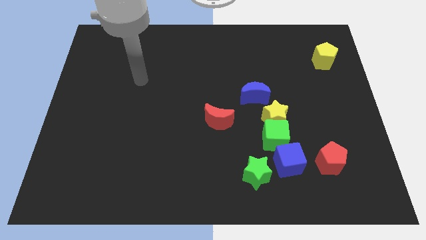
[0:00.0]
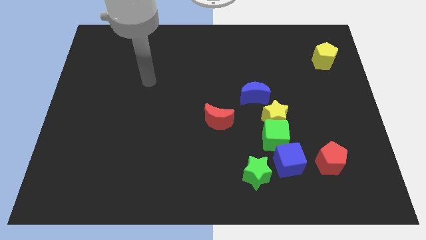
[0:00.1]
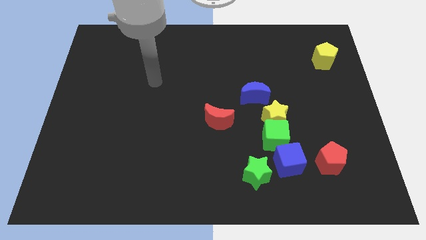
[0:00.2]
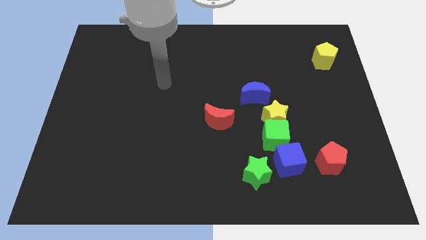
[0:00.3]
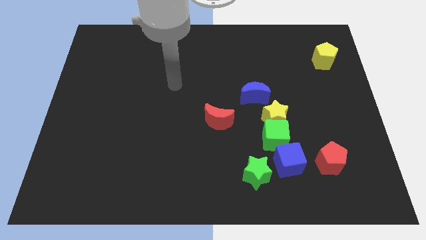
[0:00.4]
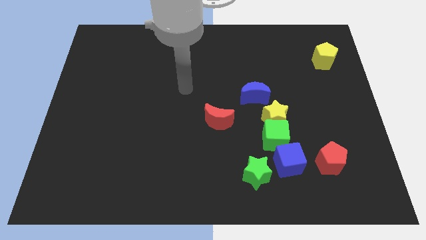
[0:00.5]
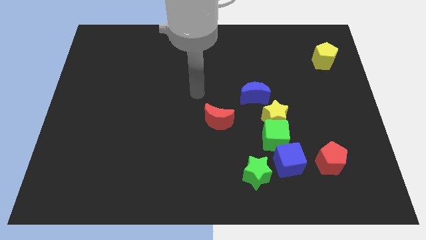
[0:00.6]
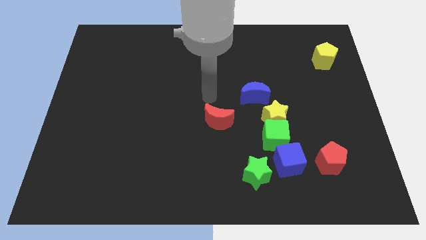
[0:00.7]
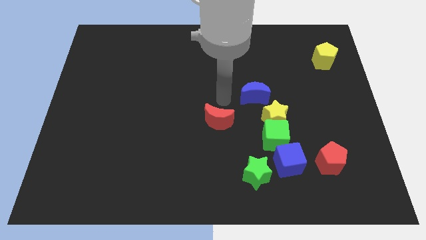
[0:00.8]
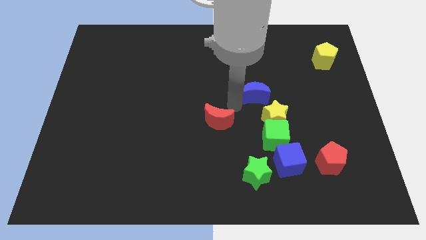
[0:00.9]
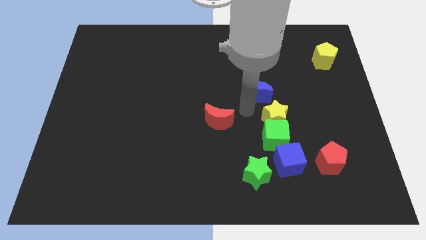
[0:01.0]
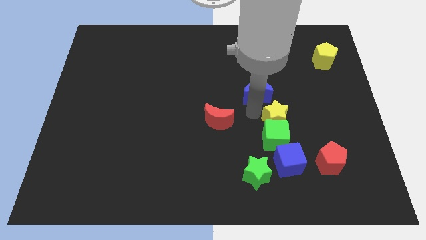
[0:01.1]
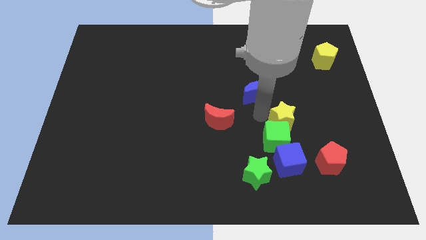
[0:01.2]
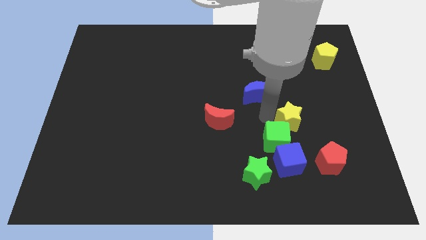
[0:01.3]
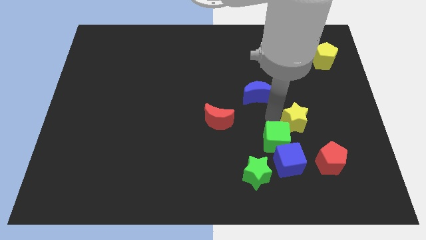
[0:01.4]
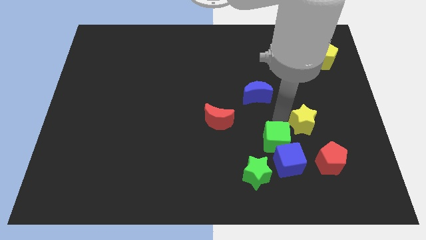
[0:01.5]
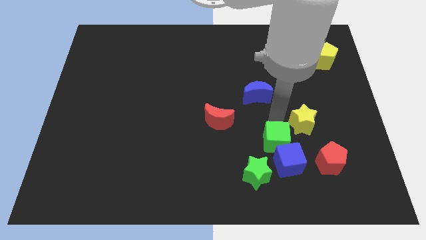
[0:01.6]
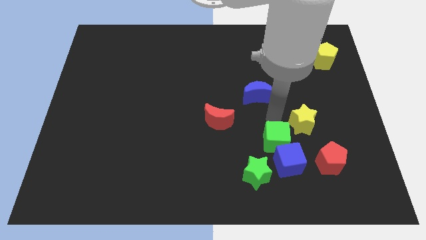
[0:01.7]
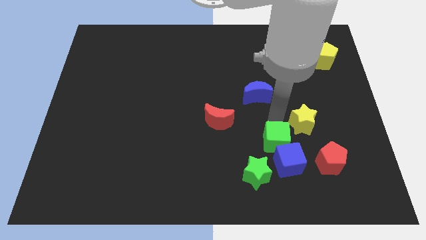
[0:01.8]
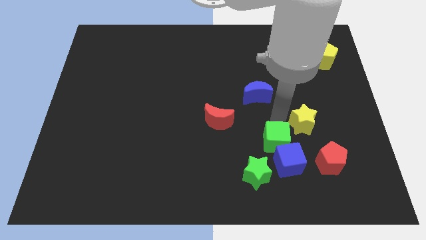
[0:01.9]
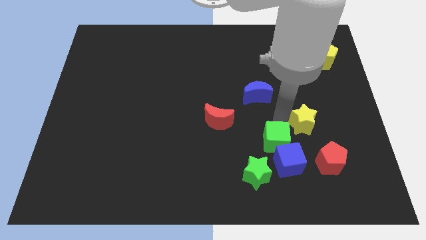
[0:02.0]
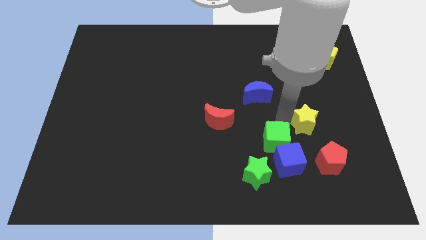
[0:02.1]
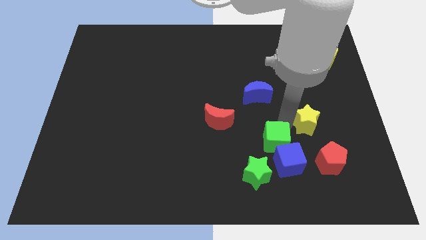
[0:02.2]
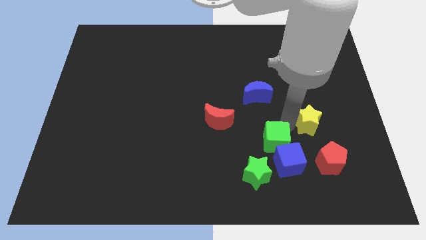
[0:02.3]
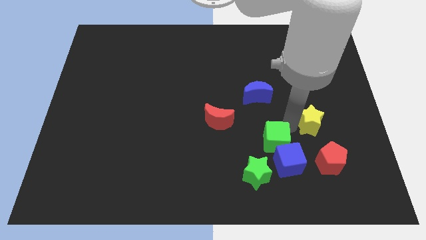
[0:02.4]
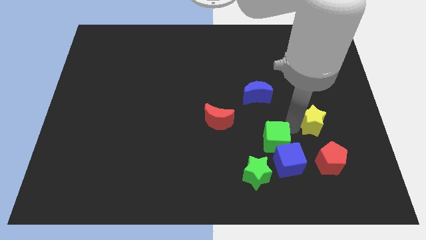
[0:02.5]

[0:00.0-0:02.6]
separate the yellow star from the green cube and blue moon

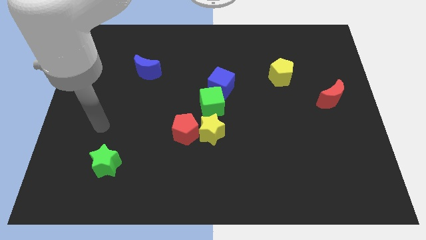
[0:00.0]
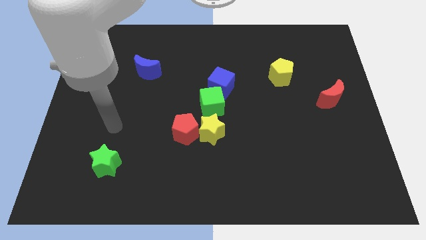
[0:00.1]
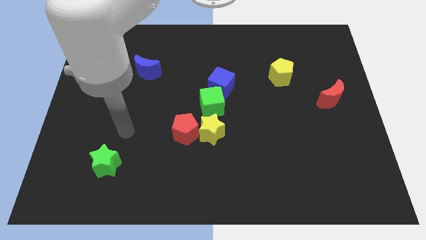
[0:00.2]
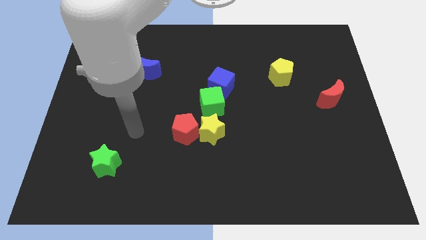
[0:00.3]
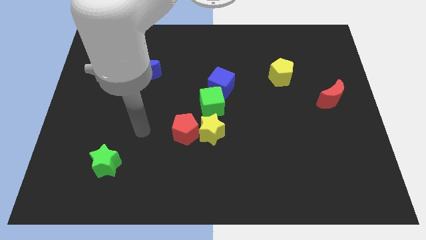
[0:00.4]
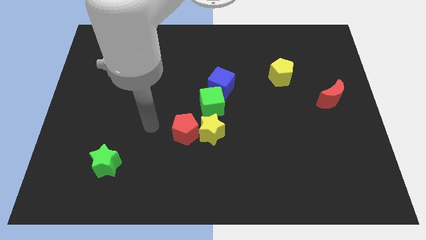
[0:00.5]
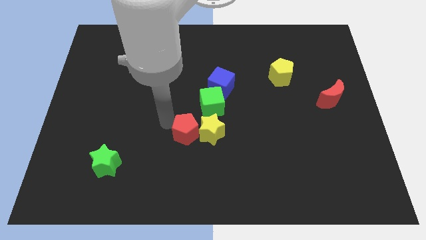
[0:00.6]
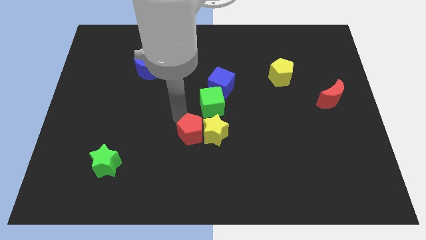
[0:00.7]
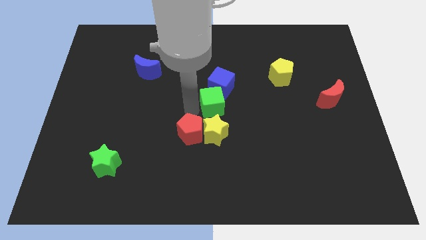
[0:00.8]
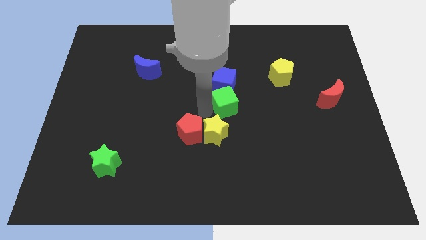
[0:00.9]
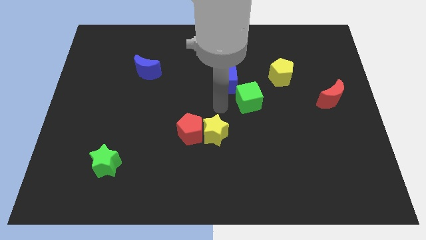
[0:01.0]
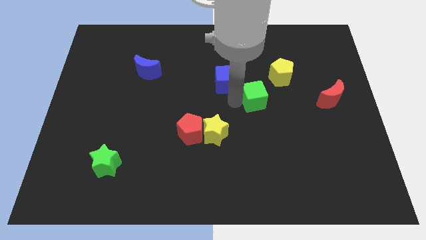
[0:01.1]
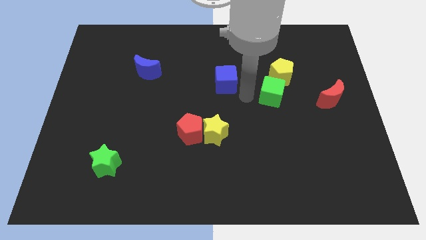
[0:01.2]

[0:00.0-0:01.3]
move the blue cube away from the green cube

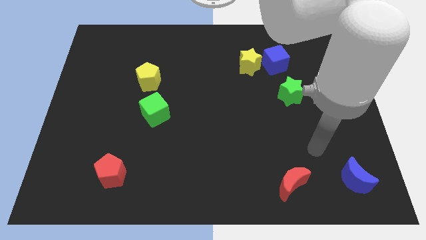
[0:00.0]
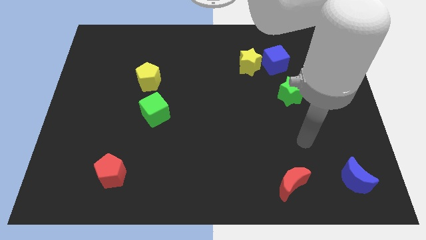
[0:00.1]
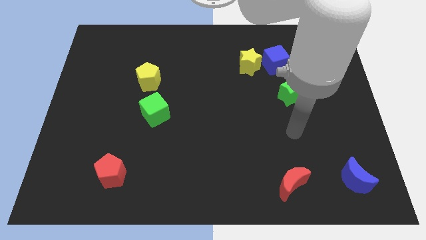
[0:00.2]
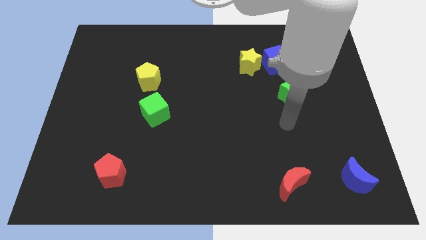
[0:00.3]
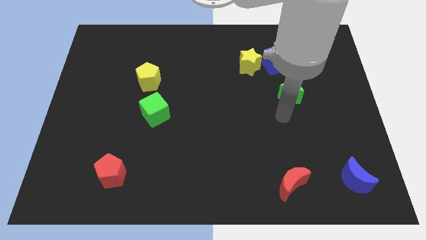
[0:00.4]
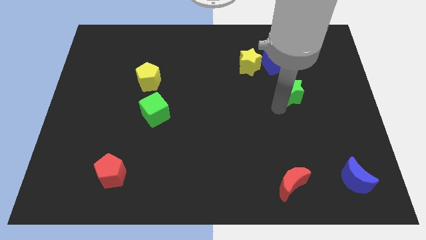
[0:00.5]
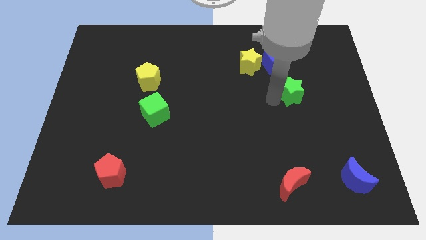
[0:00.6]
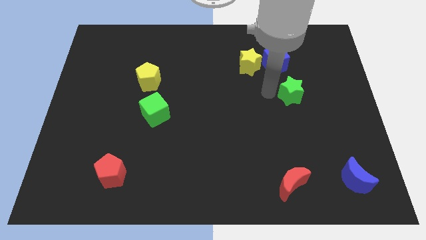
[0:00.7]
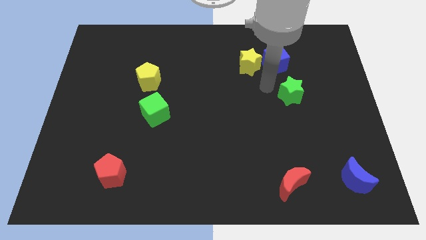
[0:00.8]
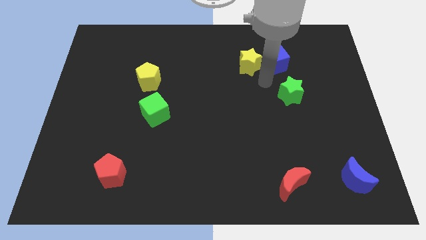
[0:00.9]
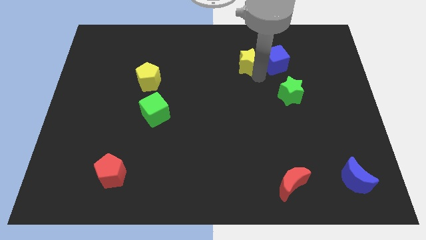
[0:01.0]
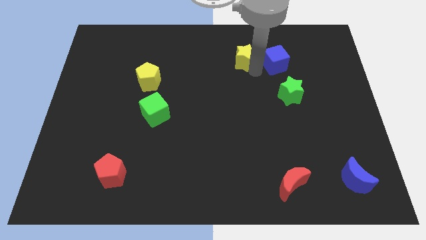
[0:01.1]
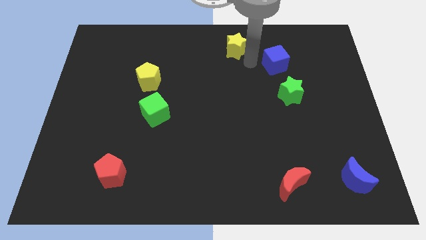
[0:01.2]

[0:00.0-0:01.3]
separate the blue cube from the yellow star

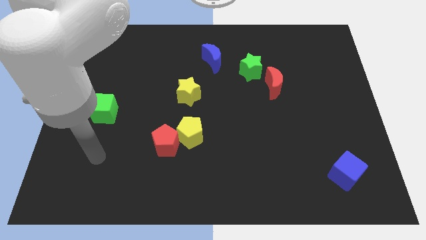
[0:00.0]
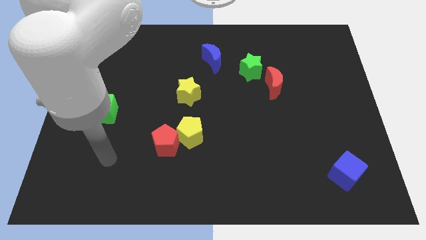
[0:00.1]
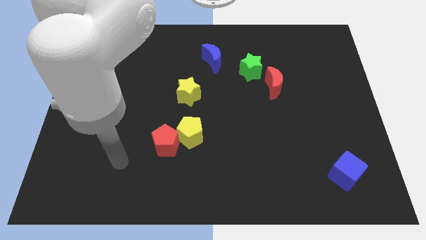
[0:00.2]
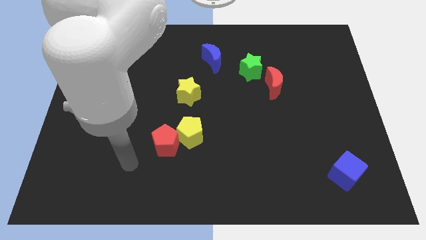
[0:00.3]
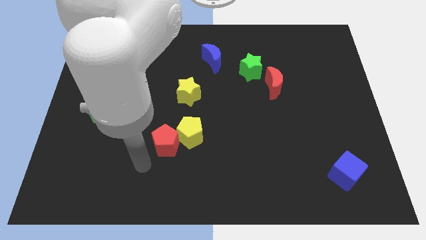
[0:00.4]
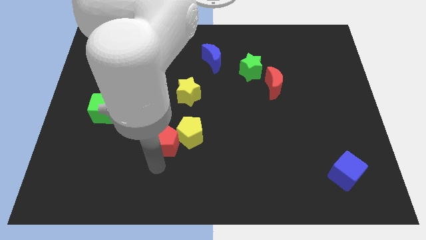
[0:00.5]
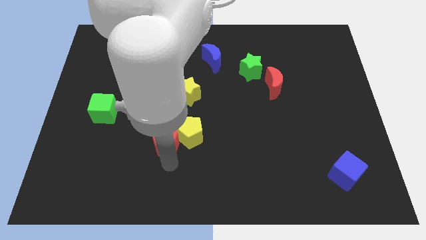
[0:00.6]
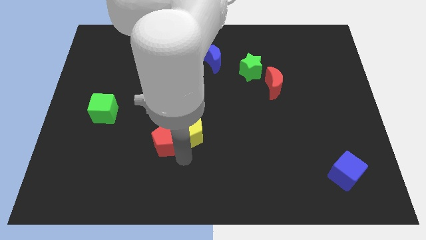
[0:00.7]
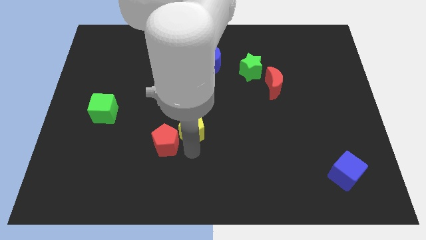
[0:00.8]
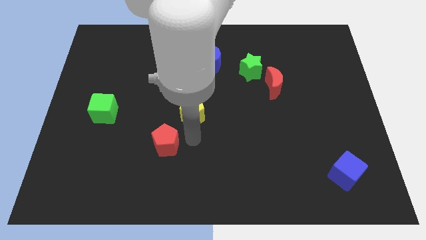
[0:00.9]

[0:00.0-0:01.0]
move the red pentagon away from the yellow pentagon

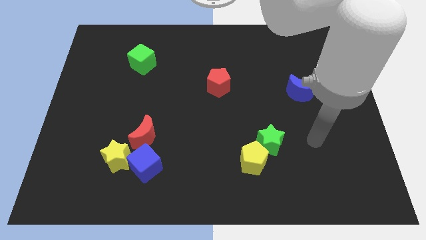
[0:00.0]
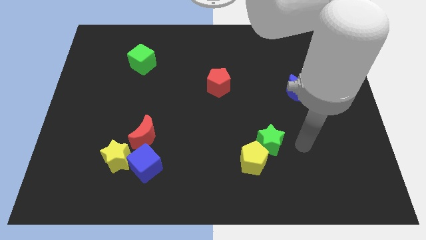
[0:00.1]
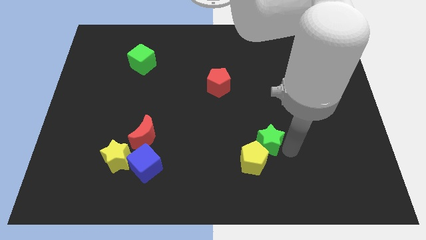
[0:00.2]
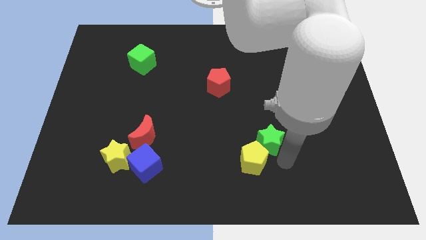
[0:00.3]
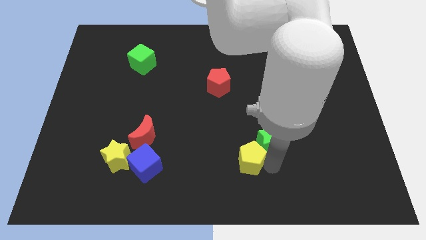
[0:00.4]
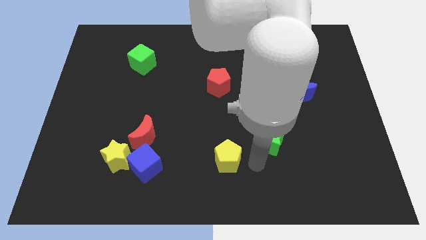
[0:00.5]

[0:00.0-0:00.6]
move the green star away from the yellow pentagon

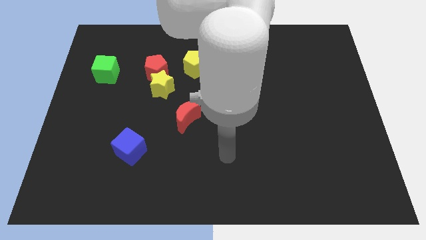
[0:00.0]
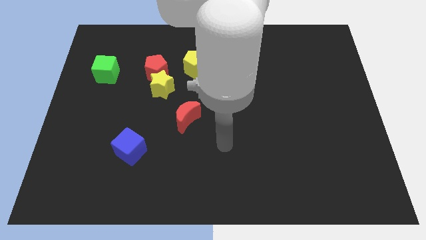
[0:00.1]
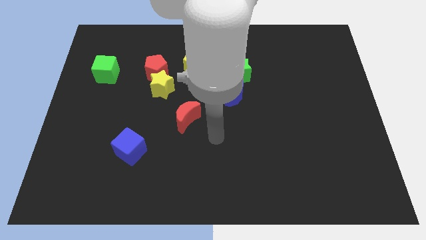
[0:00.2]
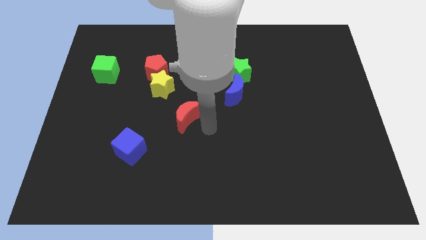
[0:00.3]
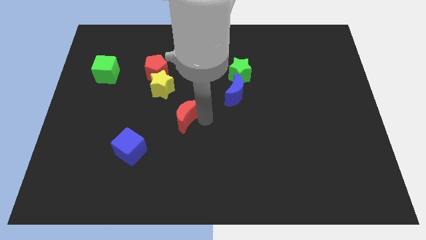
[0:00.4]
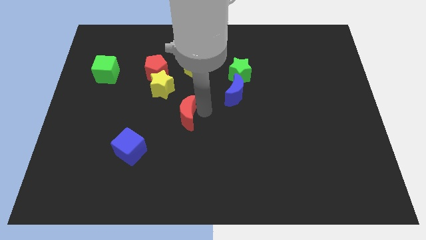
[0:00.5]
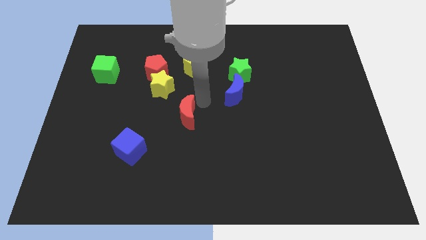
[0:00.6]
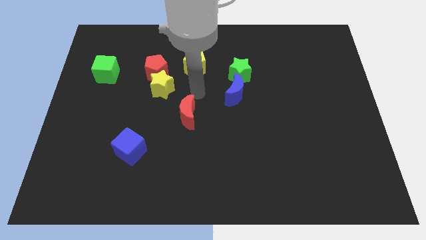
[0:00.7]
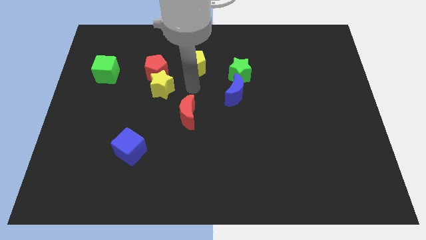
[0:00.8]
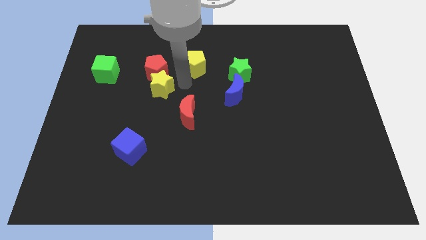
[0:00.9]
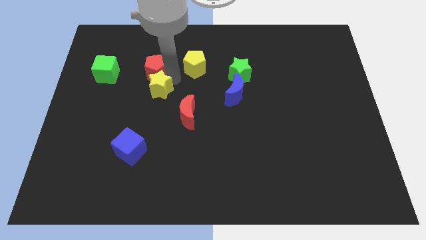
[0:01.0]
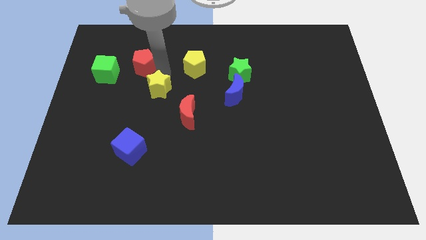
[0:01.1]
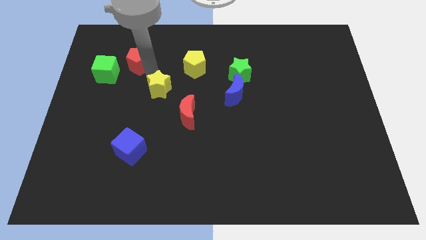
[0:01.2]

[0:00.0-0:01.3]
pull the yellow star apart from the red pentagon

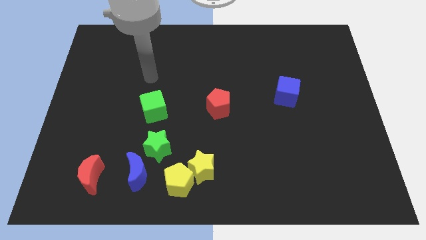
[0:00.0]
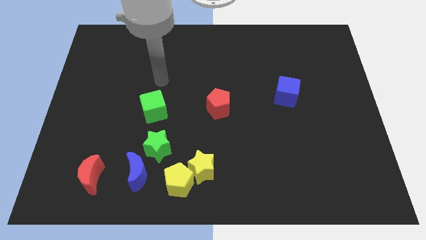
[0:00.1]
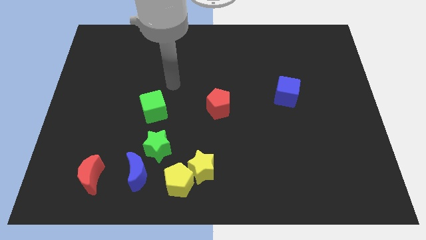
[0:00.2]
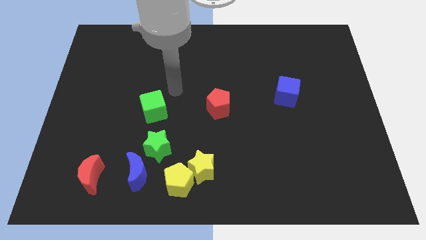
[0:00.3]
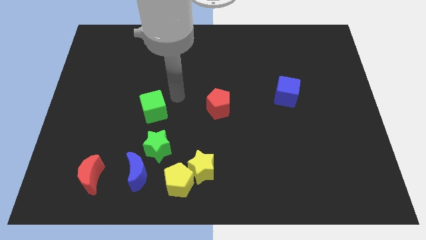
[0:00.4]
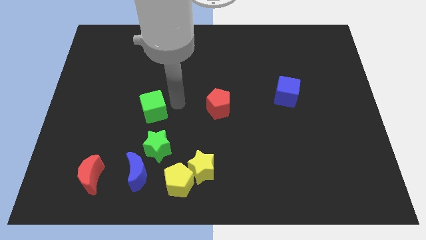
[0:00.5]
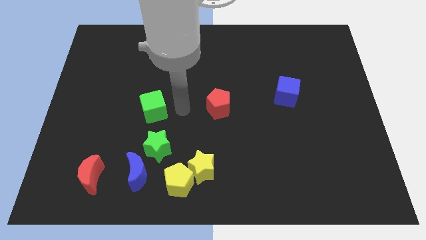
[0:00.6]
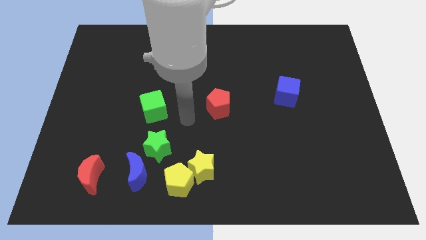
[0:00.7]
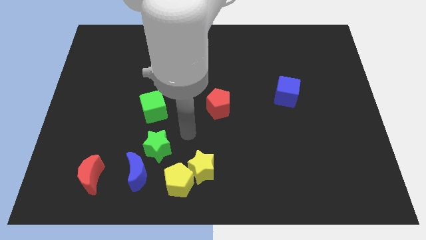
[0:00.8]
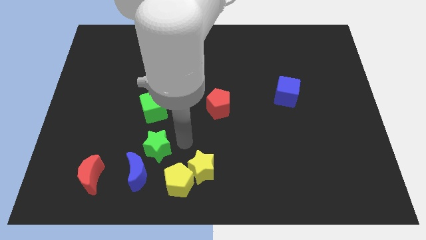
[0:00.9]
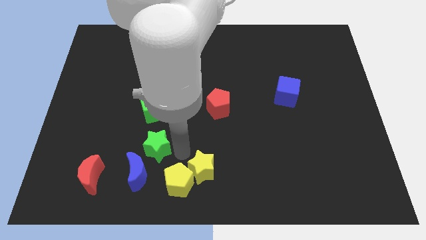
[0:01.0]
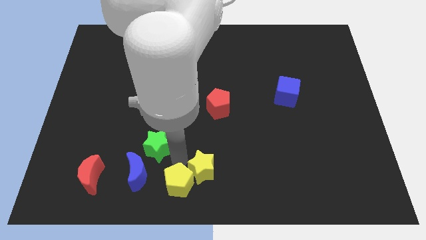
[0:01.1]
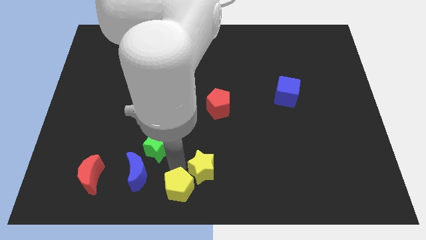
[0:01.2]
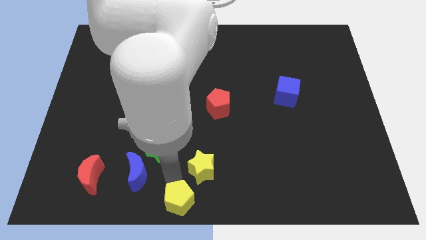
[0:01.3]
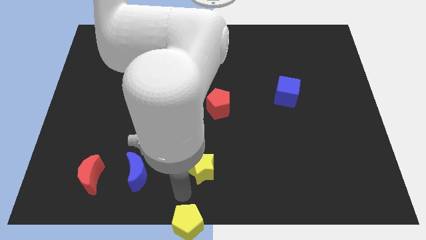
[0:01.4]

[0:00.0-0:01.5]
pull the yellow star apart from the yellow pentagon
